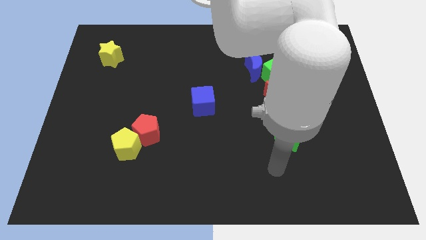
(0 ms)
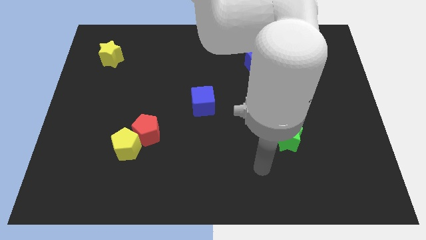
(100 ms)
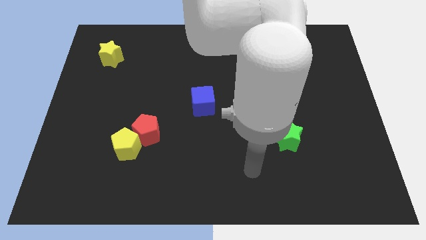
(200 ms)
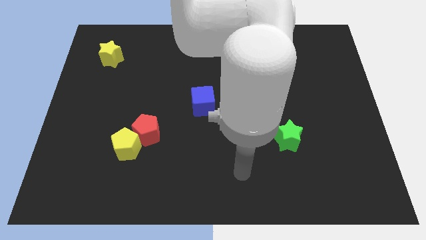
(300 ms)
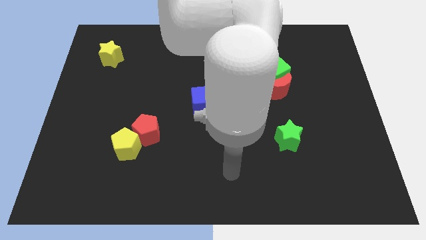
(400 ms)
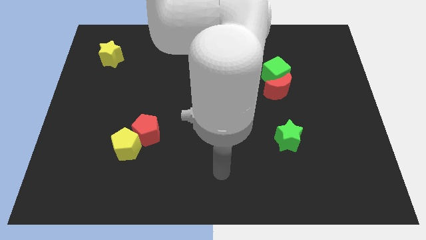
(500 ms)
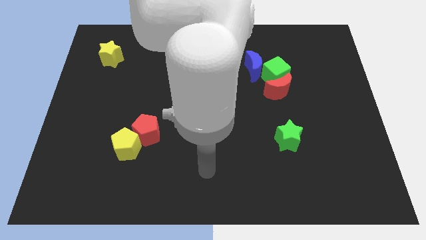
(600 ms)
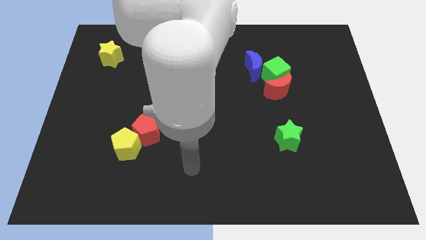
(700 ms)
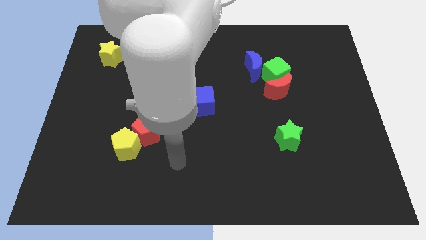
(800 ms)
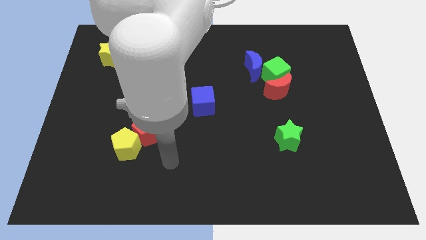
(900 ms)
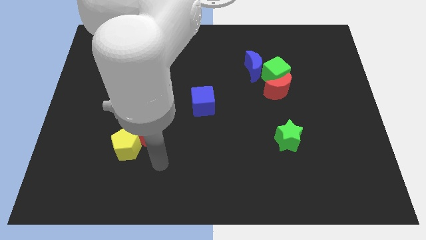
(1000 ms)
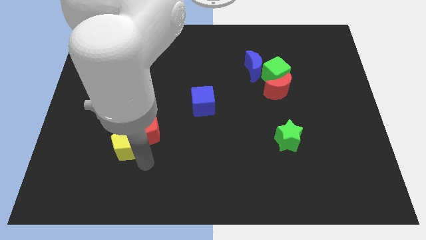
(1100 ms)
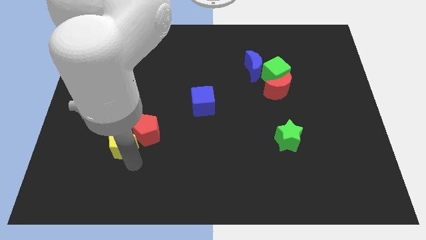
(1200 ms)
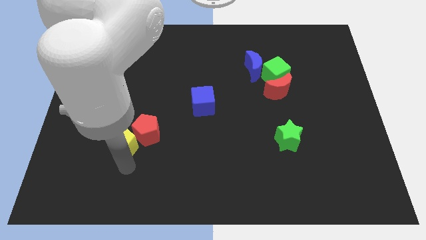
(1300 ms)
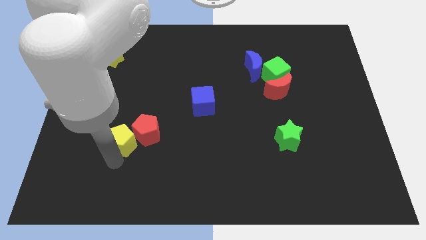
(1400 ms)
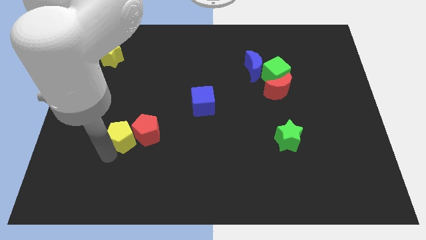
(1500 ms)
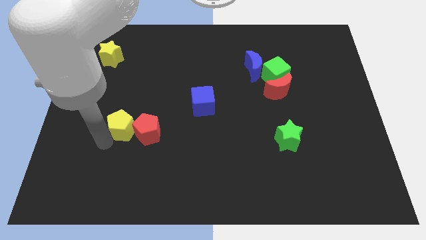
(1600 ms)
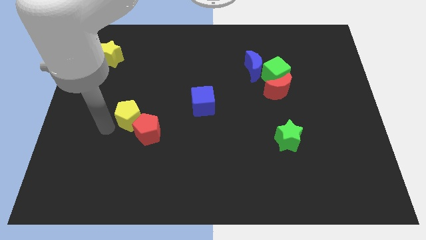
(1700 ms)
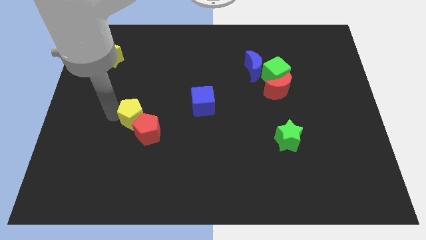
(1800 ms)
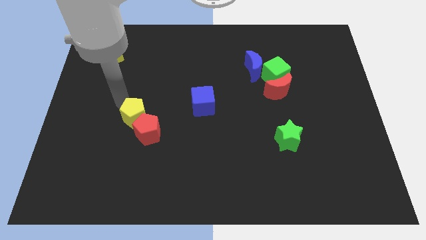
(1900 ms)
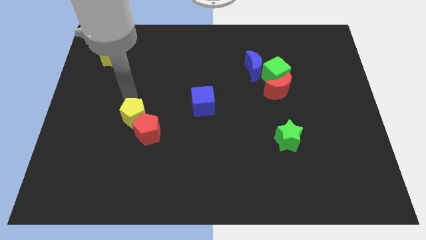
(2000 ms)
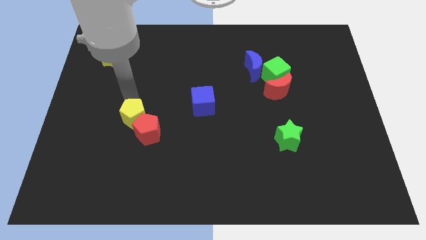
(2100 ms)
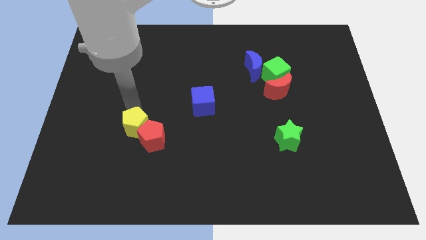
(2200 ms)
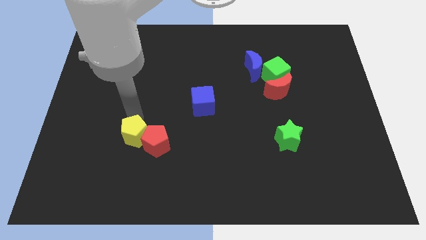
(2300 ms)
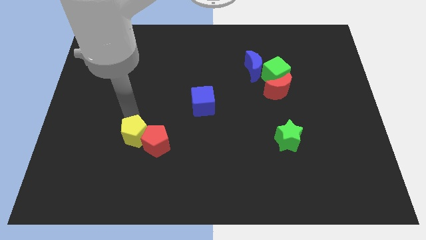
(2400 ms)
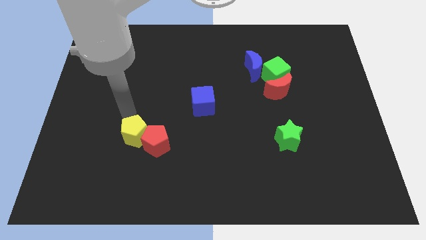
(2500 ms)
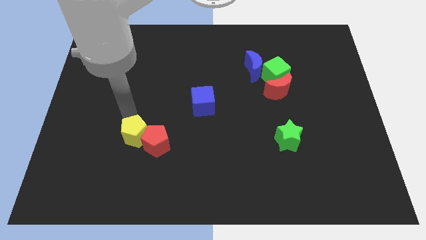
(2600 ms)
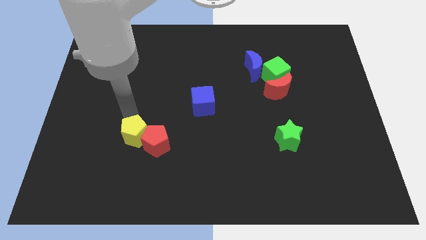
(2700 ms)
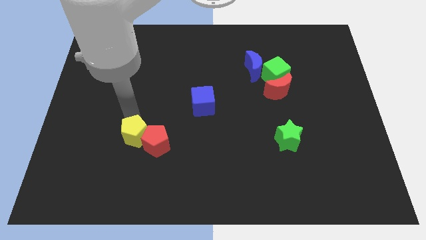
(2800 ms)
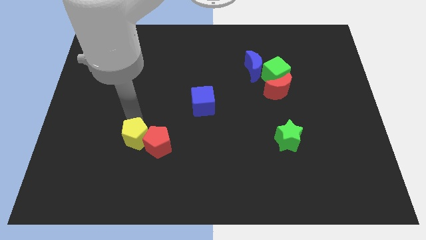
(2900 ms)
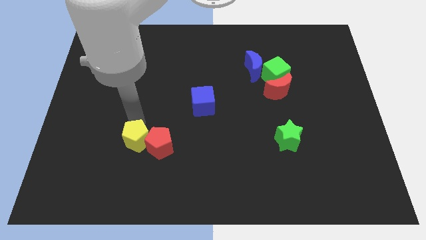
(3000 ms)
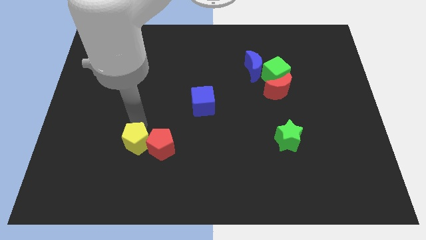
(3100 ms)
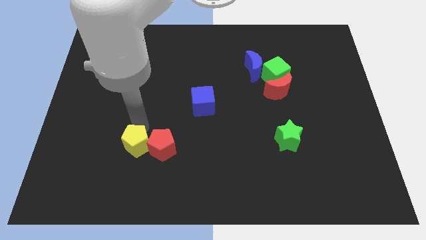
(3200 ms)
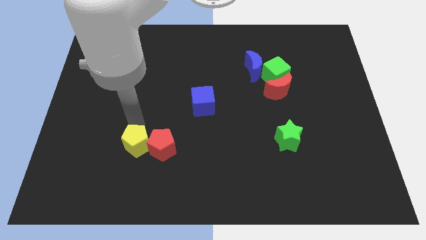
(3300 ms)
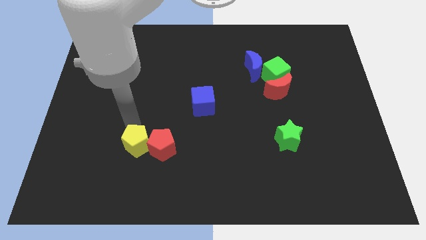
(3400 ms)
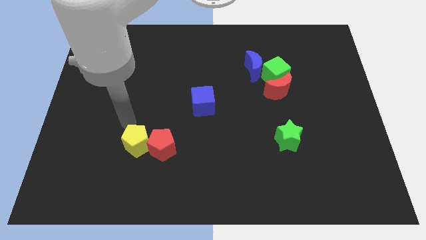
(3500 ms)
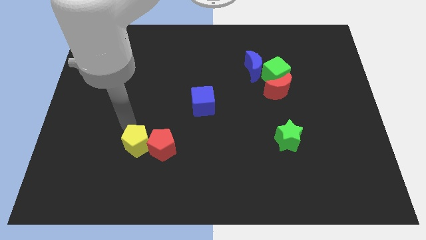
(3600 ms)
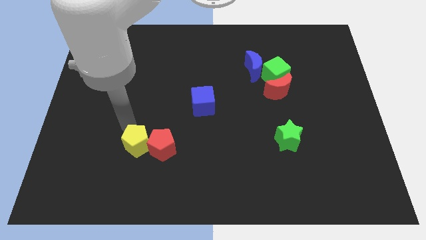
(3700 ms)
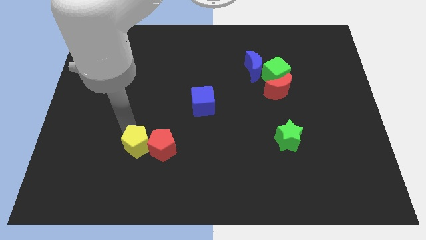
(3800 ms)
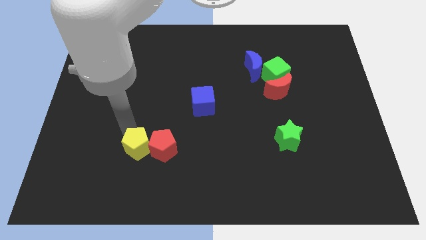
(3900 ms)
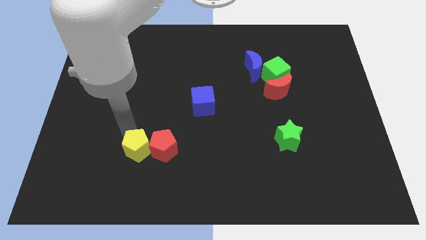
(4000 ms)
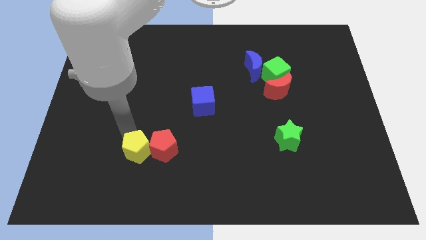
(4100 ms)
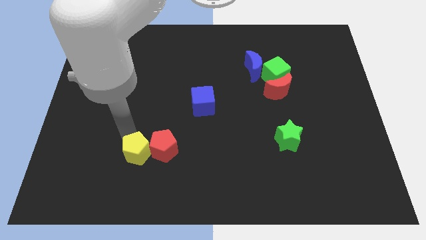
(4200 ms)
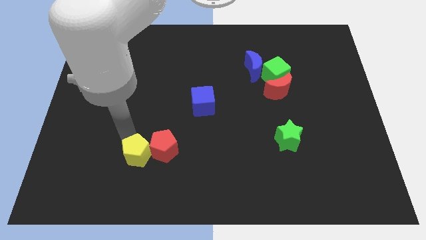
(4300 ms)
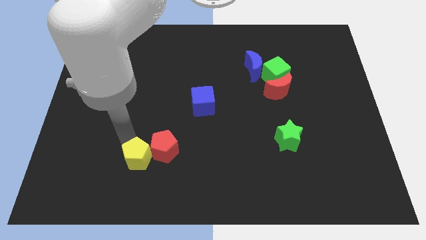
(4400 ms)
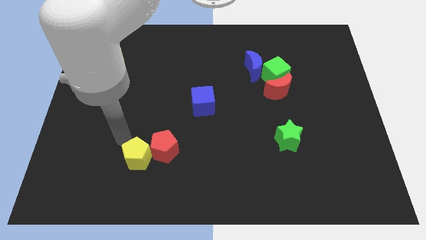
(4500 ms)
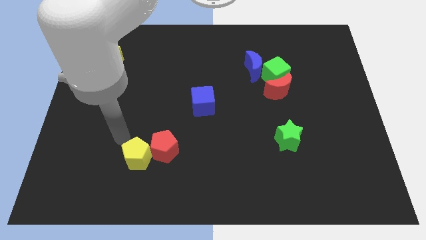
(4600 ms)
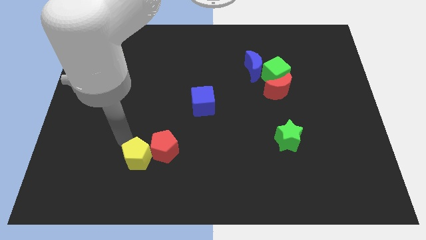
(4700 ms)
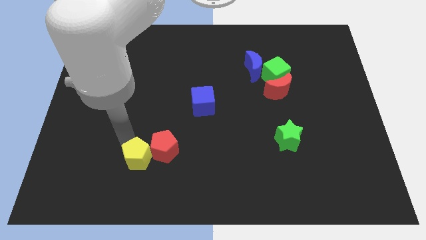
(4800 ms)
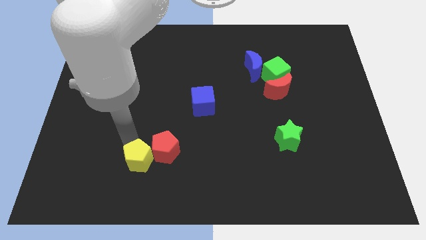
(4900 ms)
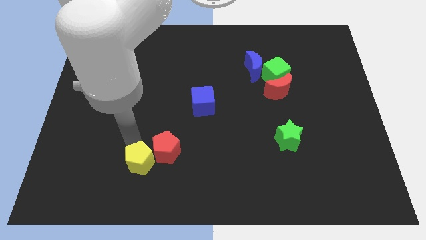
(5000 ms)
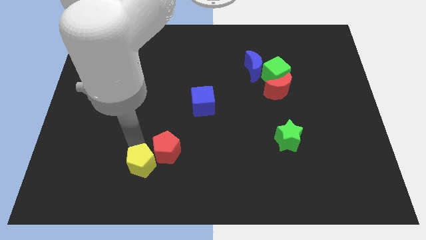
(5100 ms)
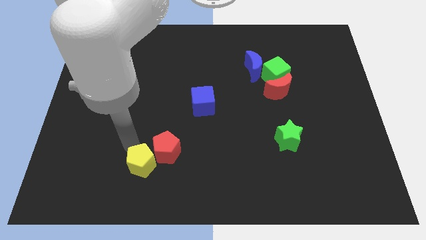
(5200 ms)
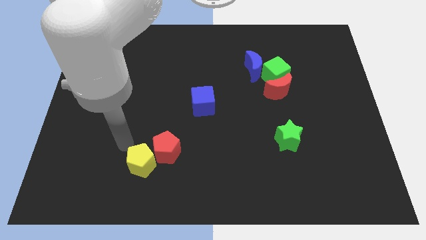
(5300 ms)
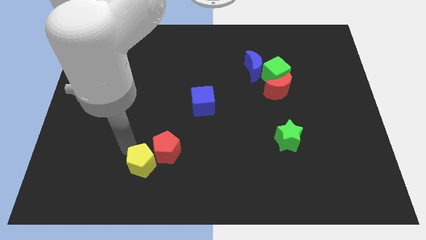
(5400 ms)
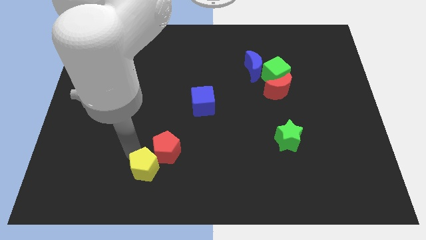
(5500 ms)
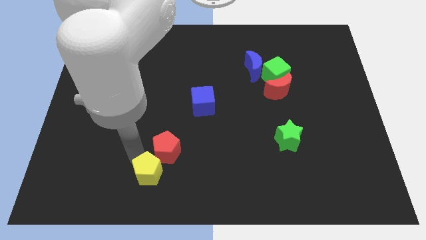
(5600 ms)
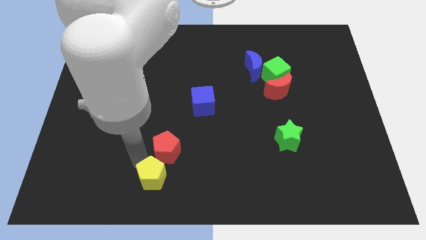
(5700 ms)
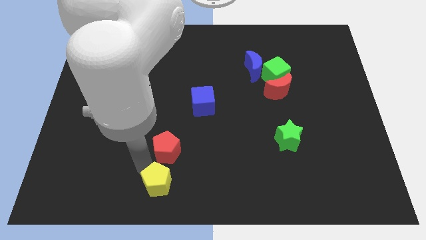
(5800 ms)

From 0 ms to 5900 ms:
slide the yellow pentagon to the bottom side

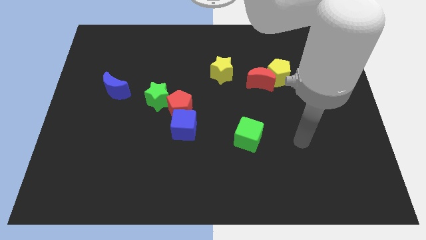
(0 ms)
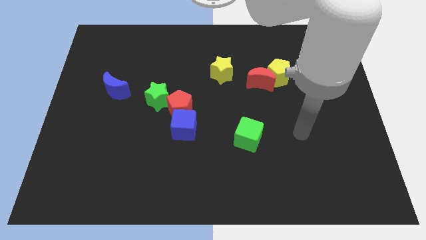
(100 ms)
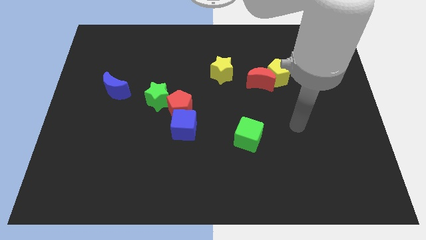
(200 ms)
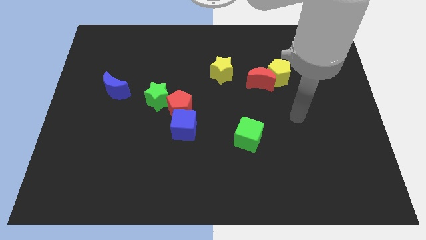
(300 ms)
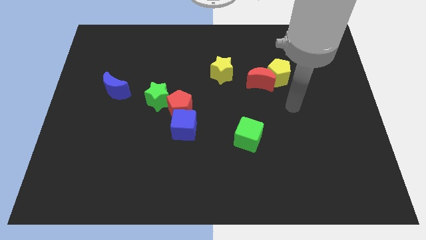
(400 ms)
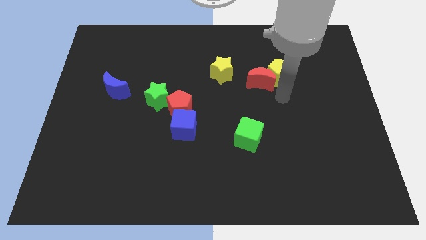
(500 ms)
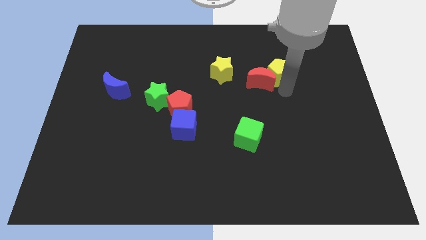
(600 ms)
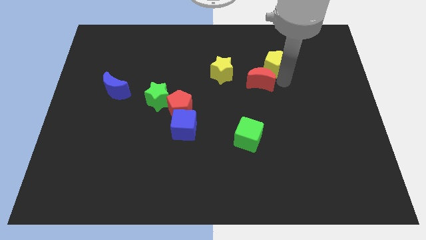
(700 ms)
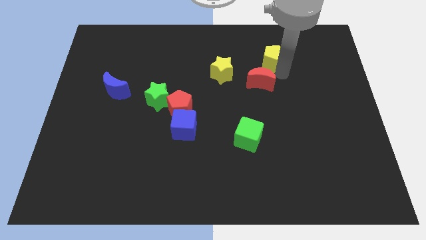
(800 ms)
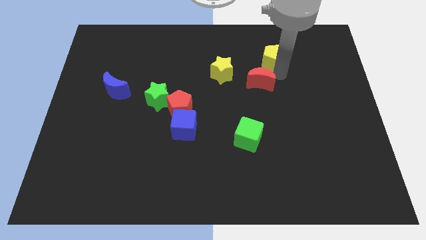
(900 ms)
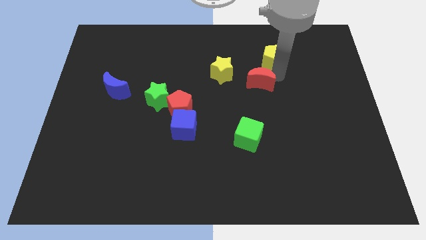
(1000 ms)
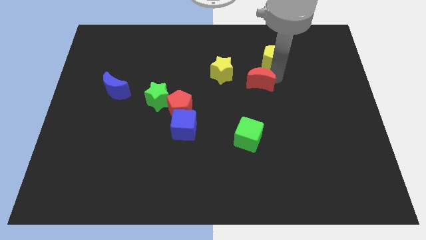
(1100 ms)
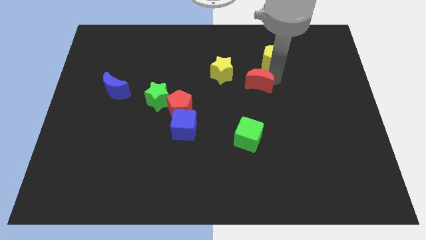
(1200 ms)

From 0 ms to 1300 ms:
slide the red moon to the center of the board
